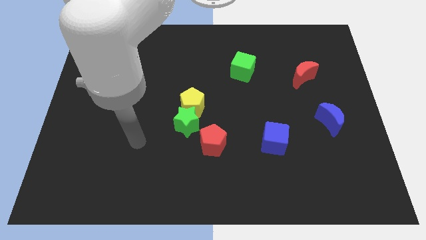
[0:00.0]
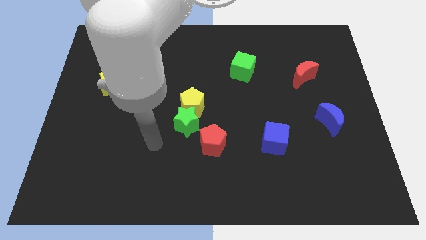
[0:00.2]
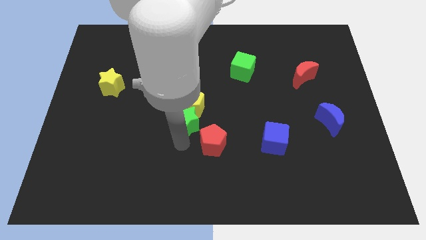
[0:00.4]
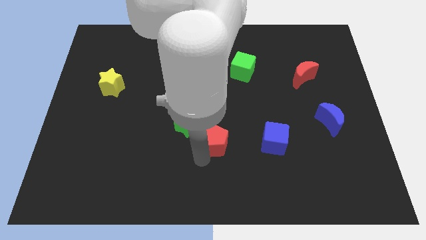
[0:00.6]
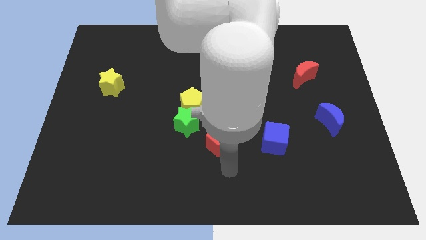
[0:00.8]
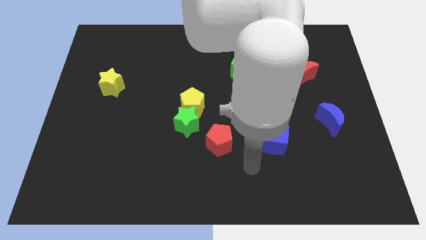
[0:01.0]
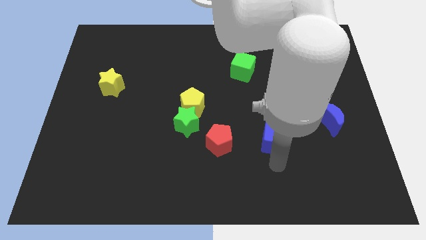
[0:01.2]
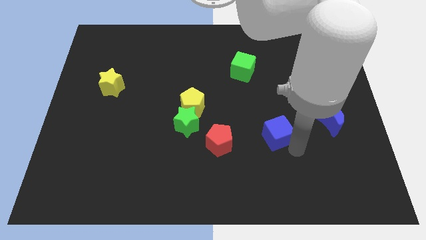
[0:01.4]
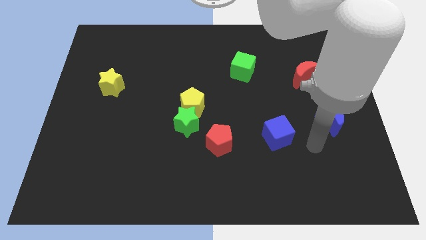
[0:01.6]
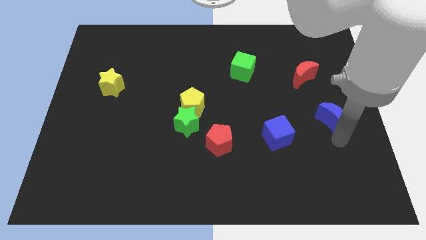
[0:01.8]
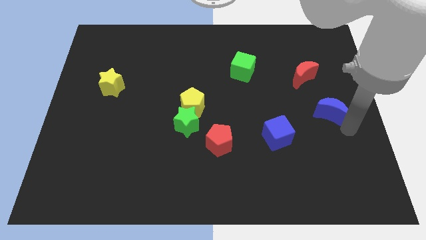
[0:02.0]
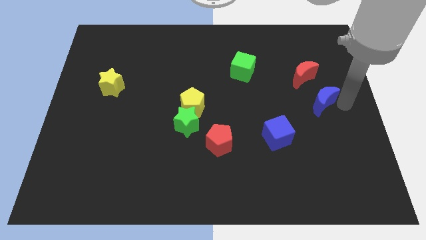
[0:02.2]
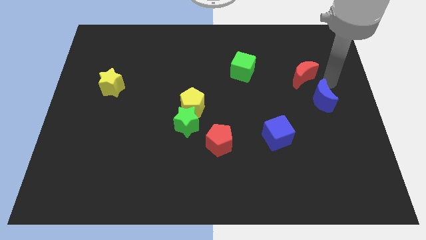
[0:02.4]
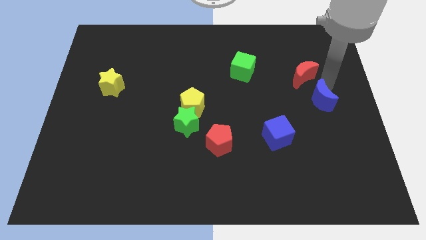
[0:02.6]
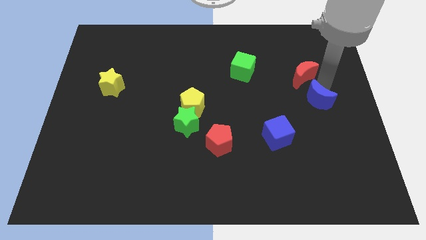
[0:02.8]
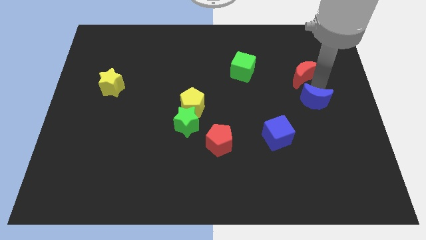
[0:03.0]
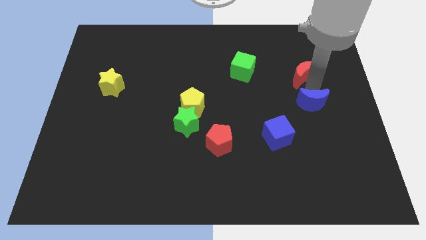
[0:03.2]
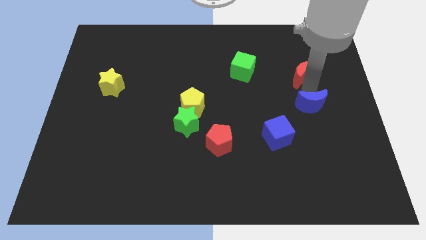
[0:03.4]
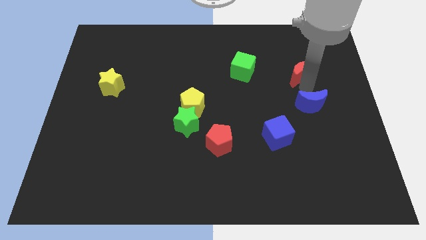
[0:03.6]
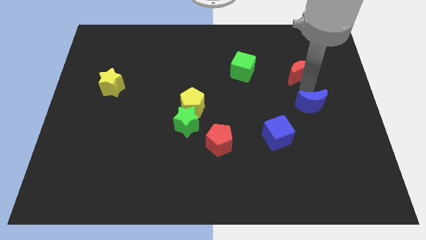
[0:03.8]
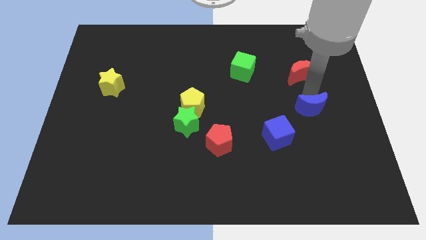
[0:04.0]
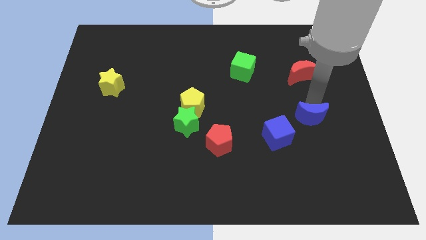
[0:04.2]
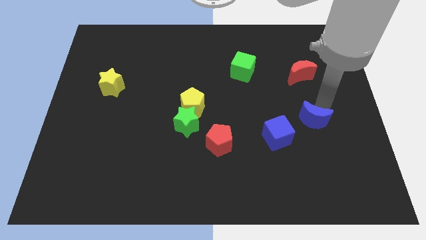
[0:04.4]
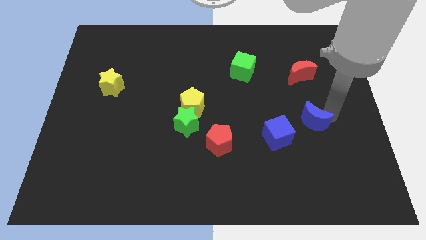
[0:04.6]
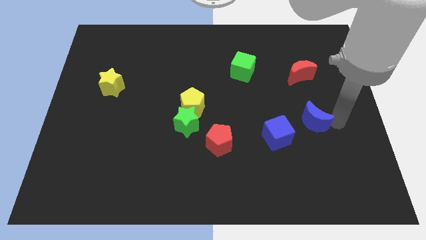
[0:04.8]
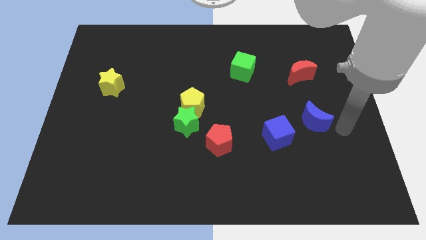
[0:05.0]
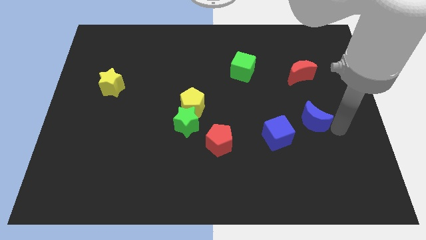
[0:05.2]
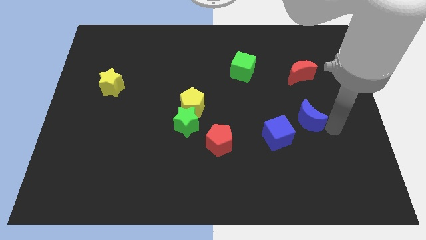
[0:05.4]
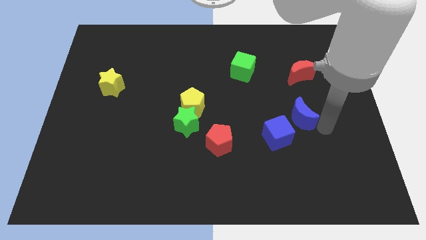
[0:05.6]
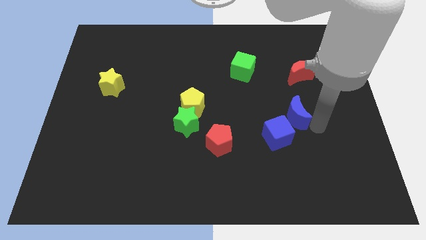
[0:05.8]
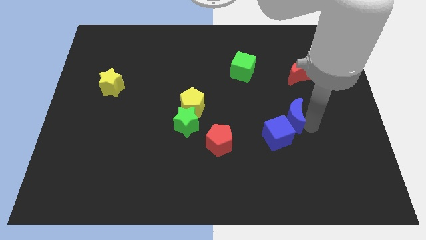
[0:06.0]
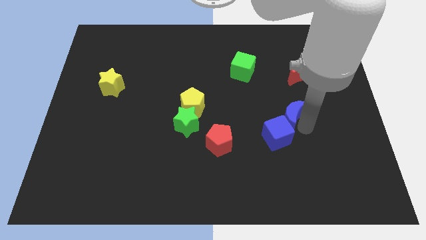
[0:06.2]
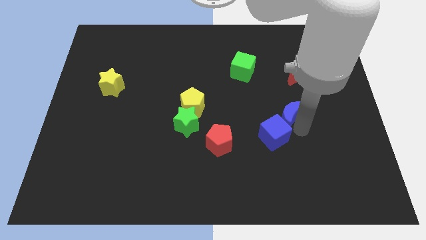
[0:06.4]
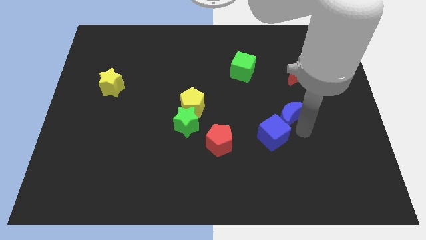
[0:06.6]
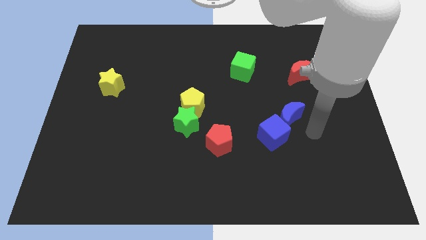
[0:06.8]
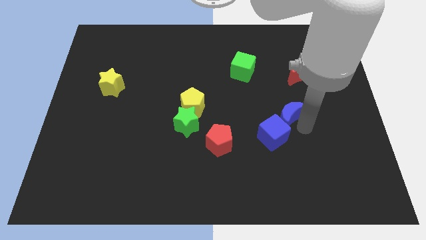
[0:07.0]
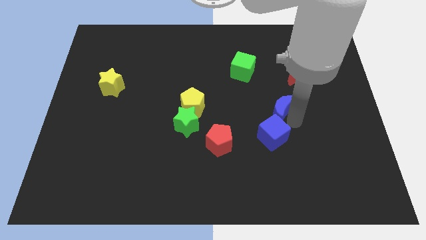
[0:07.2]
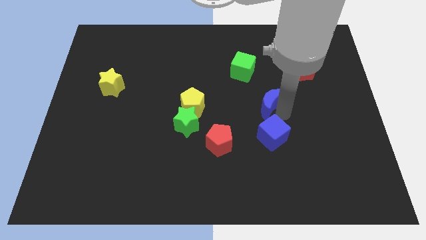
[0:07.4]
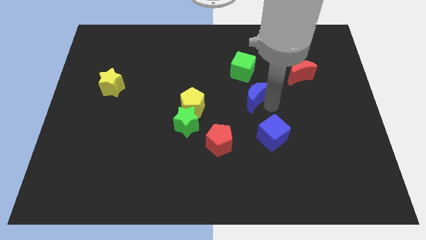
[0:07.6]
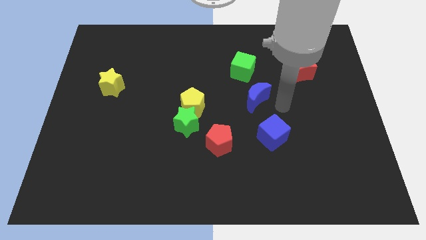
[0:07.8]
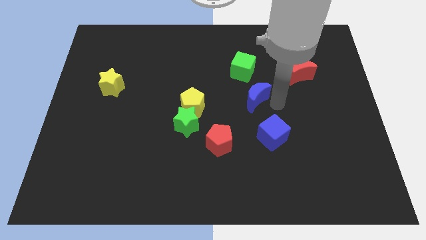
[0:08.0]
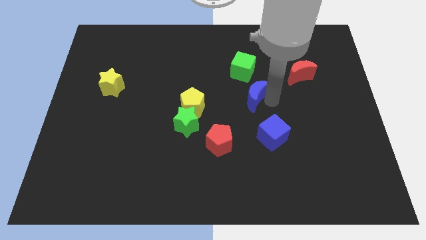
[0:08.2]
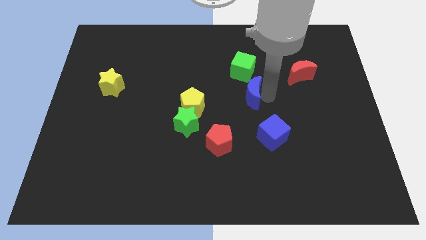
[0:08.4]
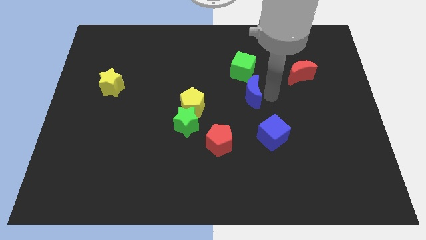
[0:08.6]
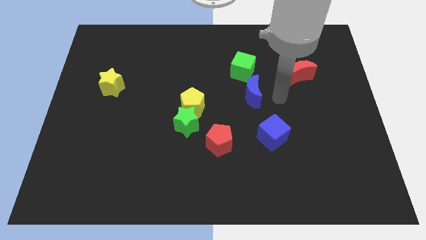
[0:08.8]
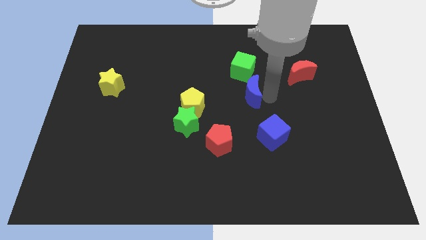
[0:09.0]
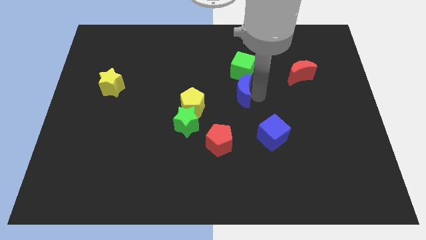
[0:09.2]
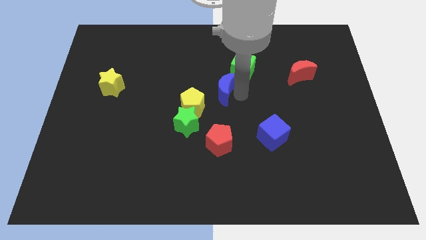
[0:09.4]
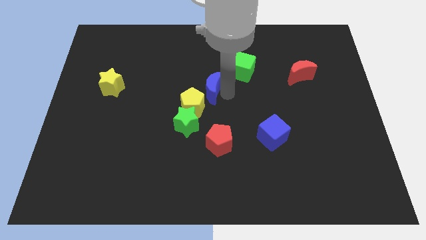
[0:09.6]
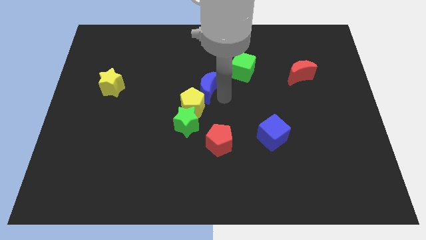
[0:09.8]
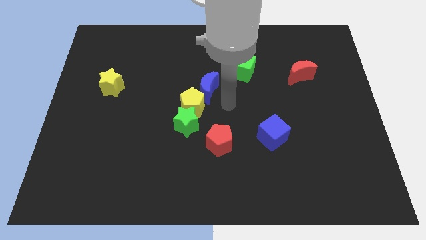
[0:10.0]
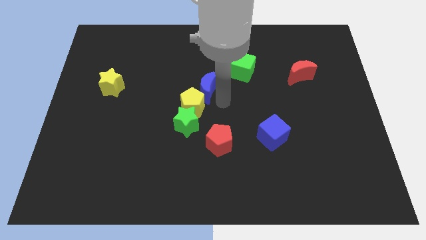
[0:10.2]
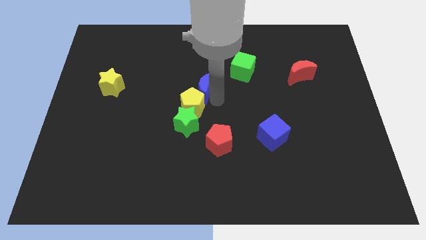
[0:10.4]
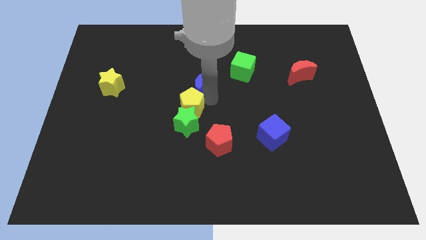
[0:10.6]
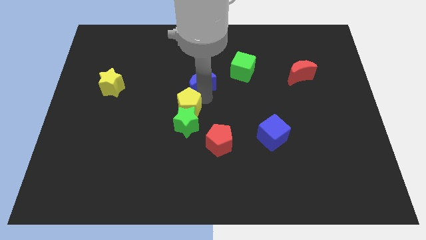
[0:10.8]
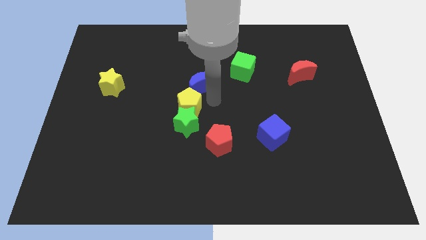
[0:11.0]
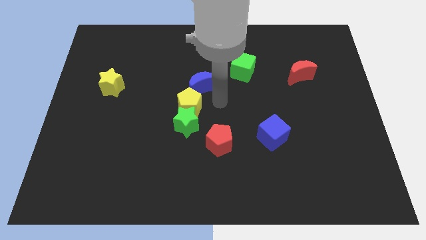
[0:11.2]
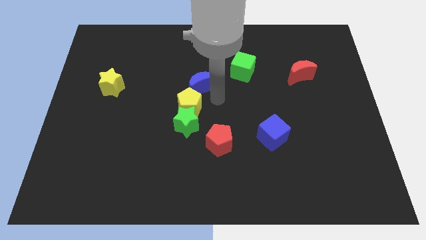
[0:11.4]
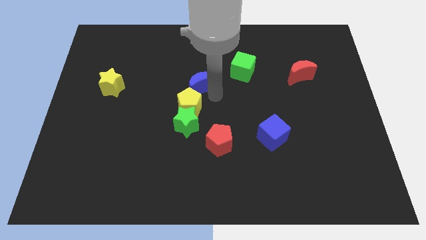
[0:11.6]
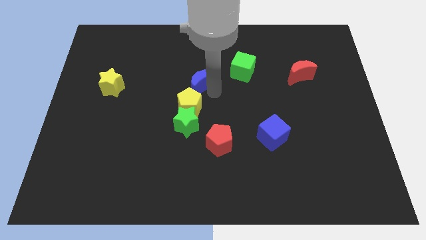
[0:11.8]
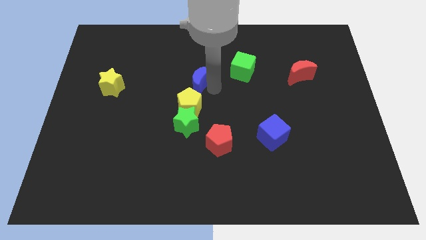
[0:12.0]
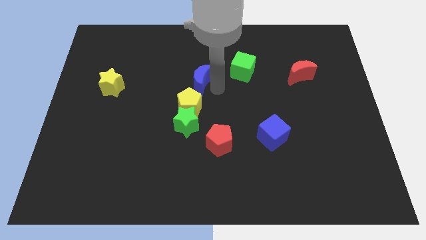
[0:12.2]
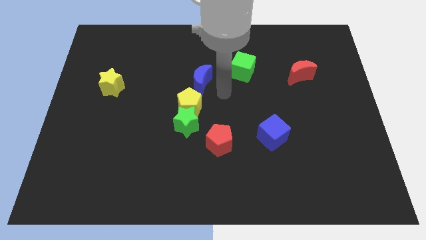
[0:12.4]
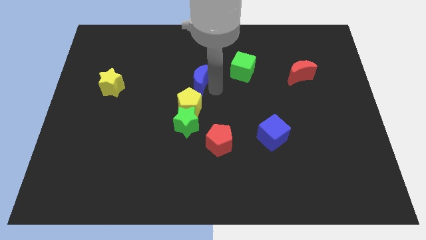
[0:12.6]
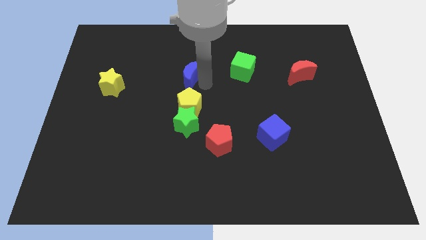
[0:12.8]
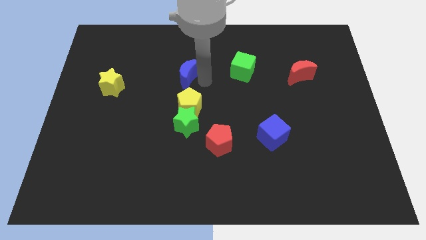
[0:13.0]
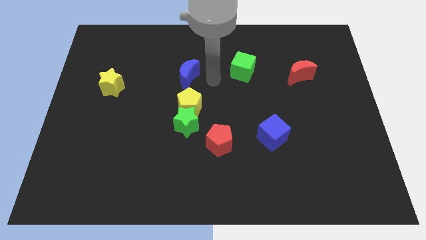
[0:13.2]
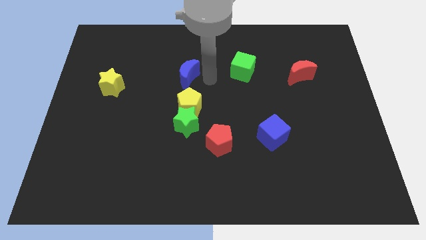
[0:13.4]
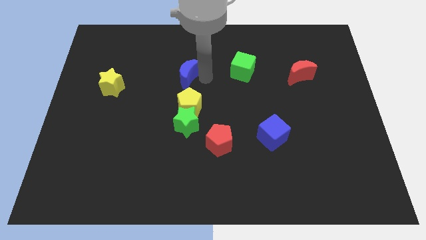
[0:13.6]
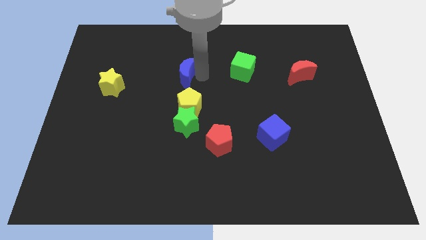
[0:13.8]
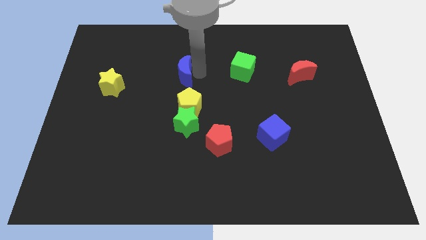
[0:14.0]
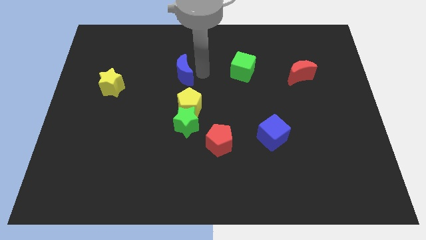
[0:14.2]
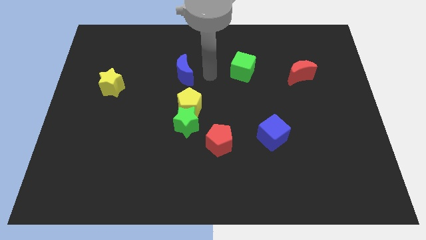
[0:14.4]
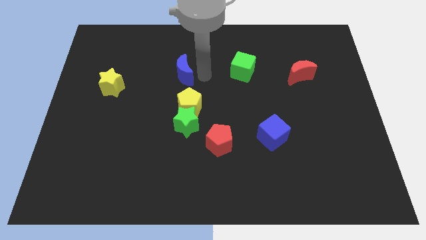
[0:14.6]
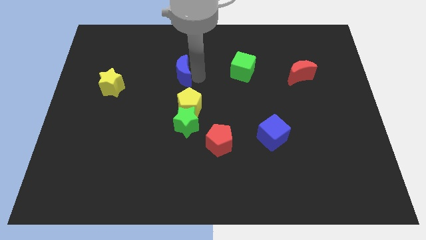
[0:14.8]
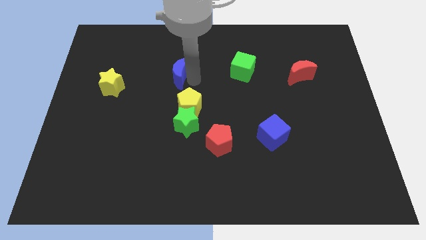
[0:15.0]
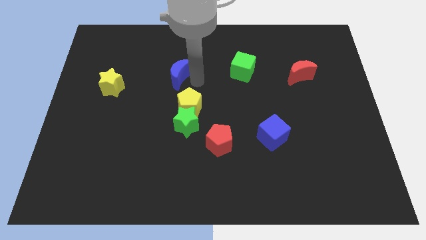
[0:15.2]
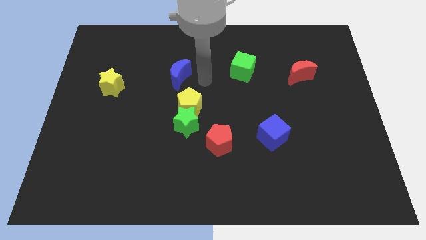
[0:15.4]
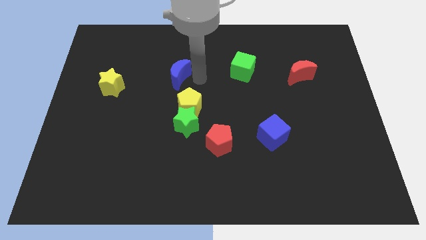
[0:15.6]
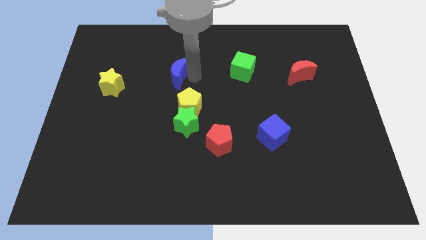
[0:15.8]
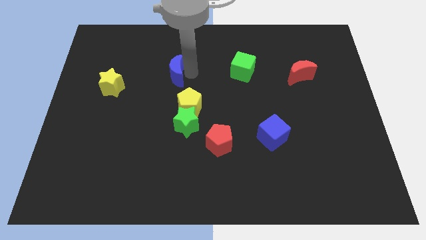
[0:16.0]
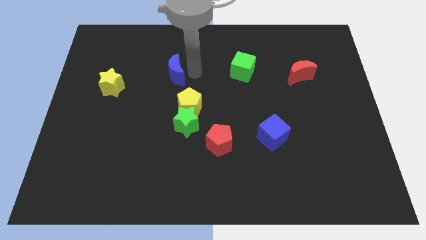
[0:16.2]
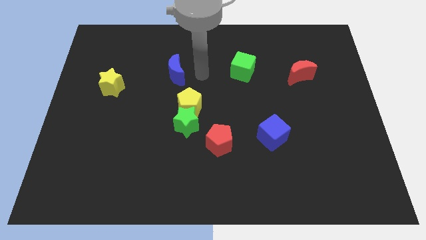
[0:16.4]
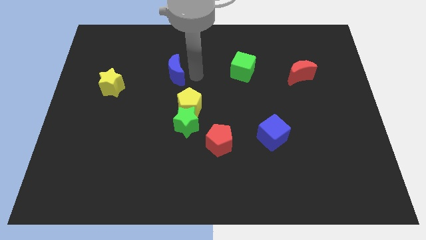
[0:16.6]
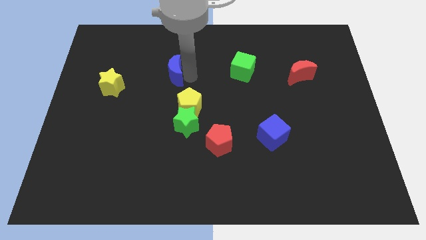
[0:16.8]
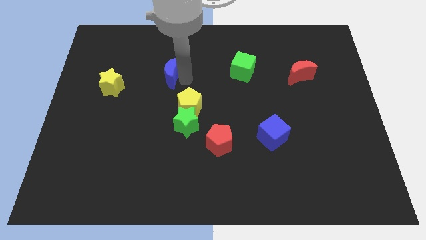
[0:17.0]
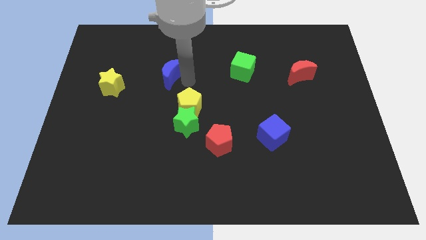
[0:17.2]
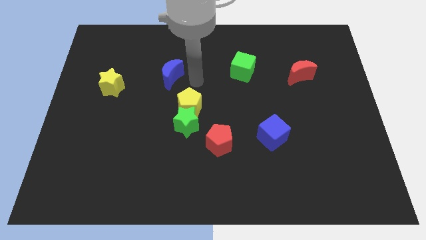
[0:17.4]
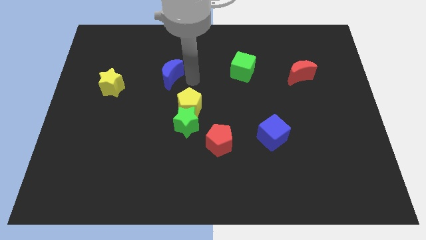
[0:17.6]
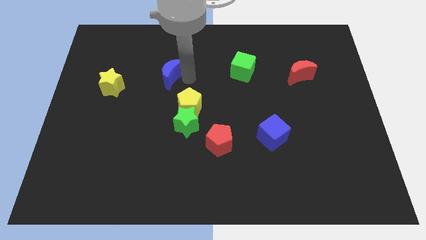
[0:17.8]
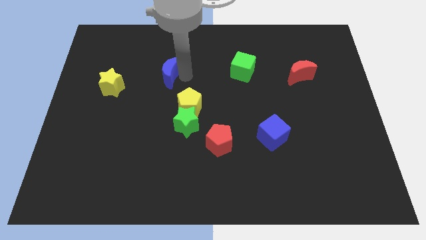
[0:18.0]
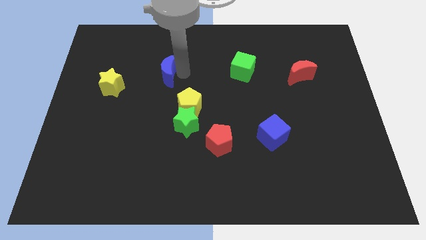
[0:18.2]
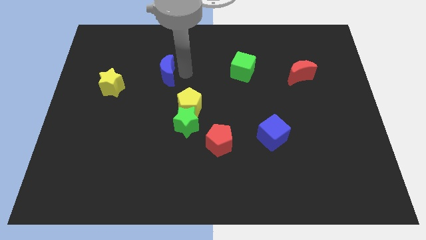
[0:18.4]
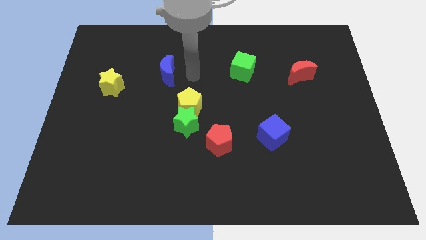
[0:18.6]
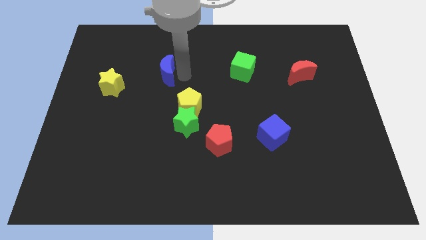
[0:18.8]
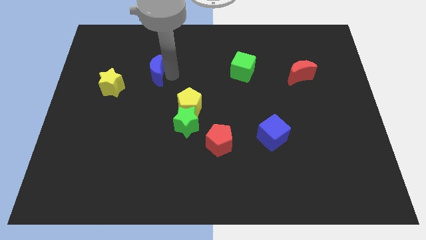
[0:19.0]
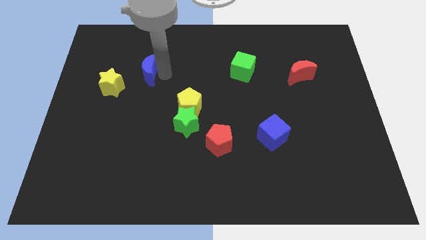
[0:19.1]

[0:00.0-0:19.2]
slide the blue moon to the top right of the yellow star
